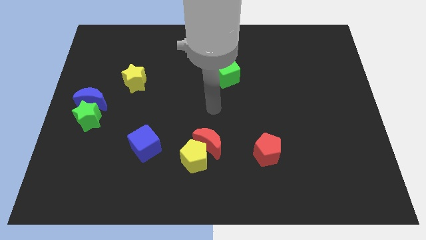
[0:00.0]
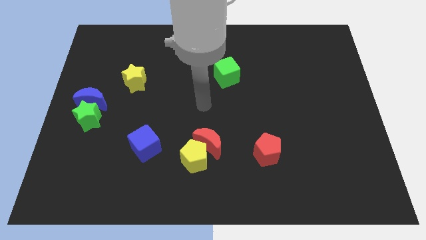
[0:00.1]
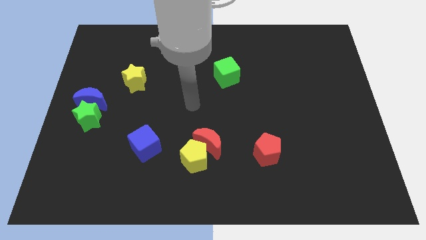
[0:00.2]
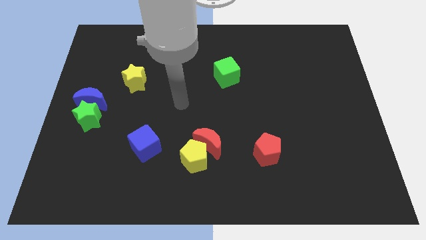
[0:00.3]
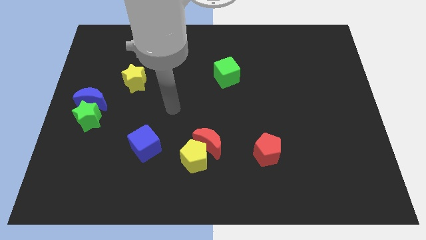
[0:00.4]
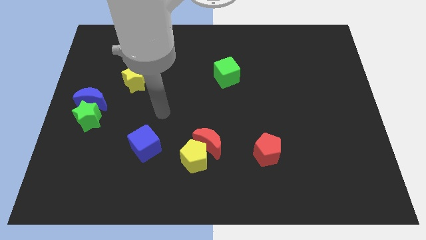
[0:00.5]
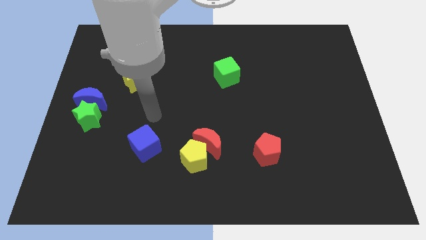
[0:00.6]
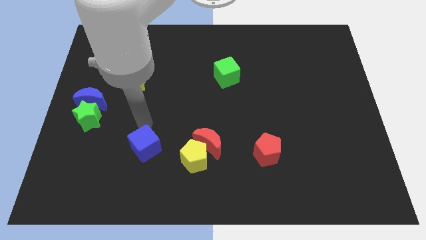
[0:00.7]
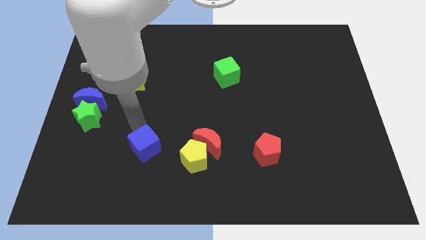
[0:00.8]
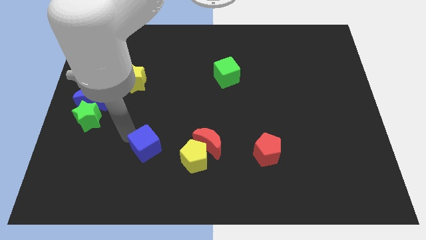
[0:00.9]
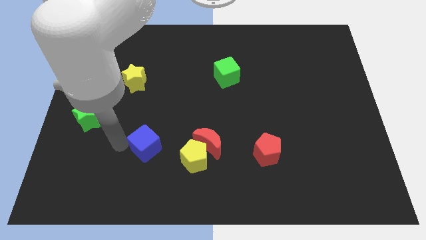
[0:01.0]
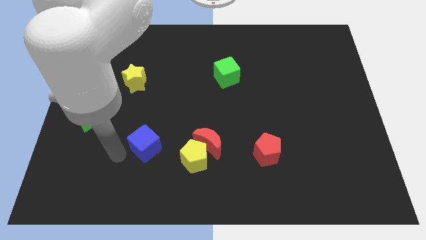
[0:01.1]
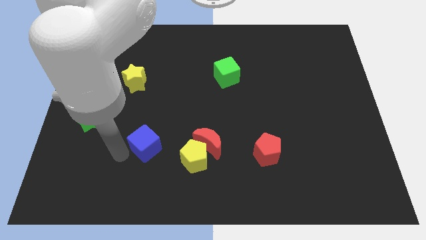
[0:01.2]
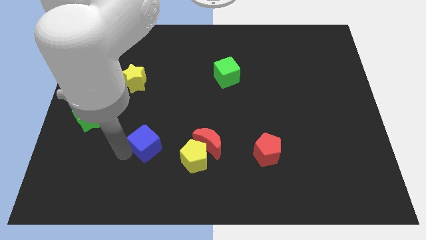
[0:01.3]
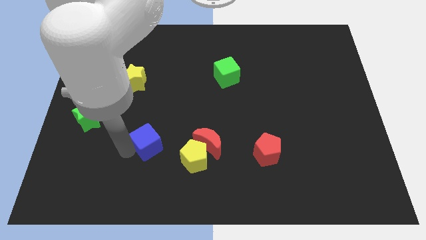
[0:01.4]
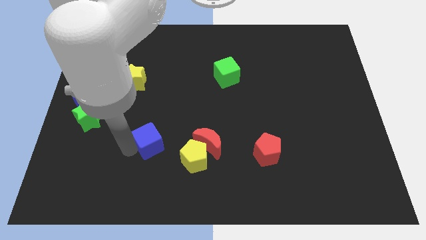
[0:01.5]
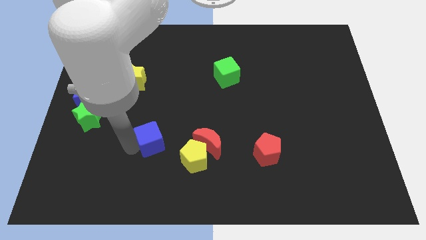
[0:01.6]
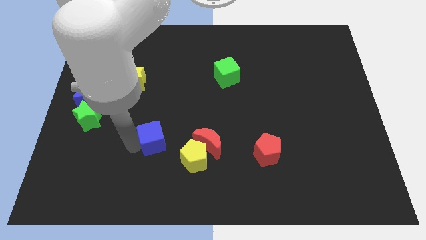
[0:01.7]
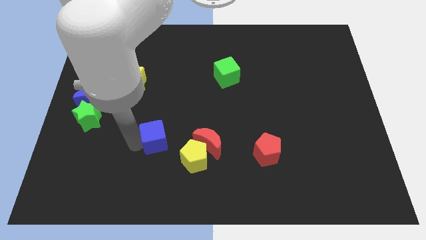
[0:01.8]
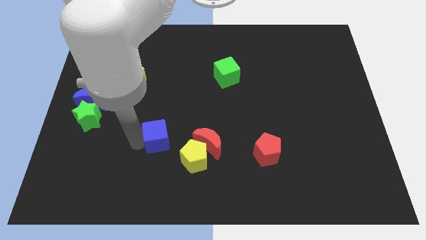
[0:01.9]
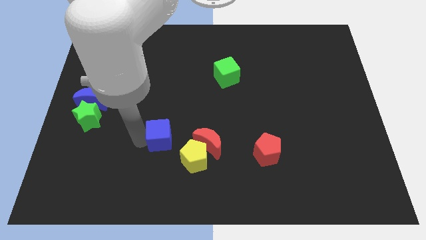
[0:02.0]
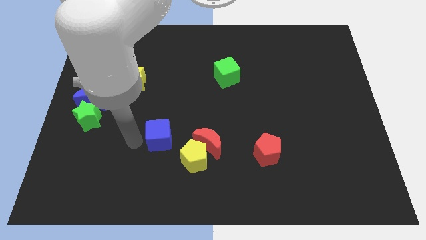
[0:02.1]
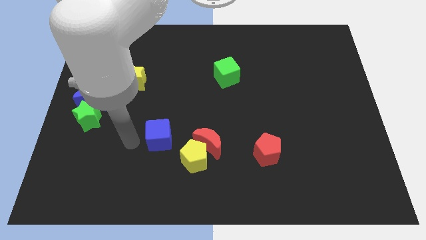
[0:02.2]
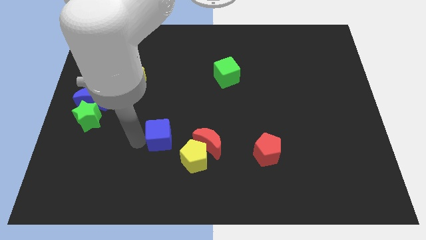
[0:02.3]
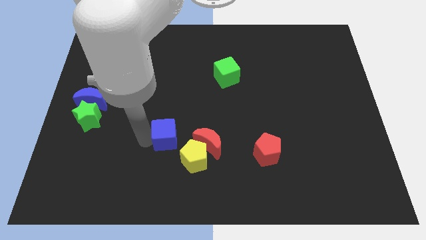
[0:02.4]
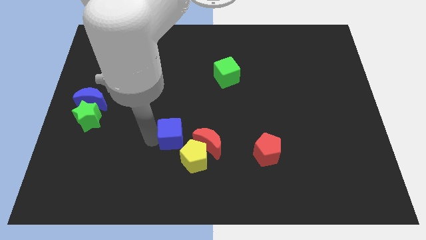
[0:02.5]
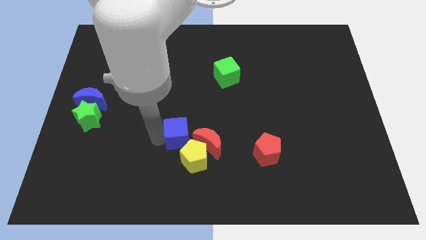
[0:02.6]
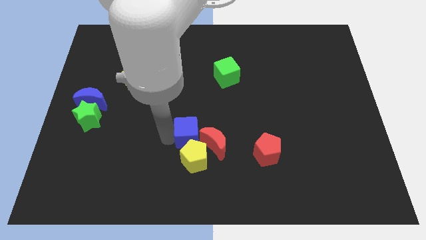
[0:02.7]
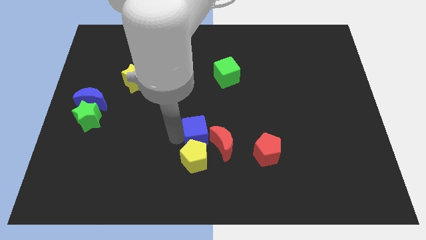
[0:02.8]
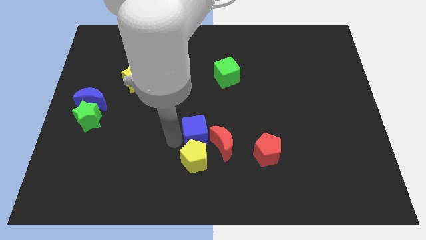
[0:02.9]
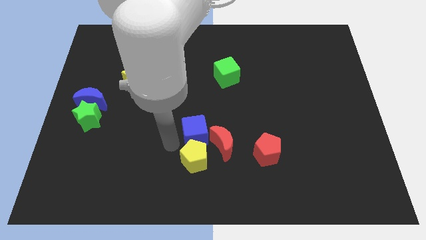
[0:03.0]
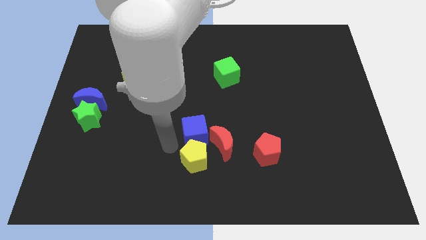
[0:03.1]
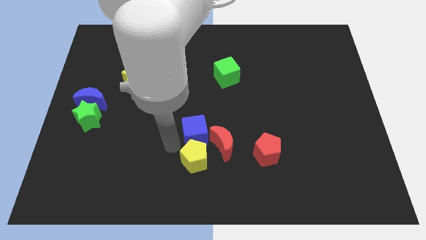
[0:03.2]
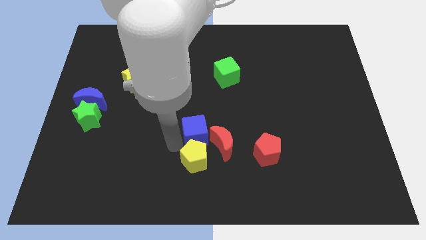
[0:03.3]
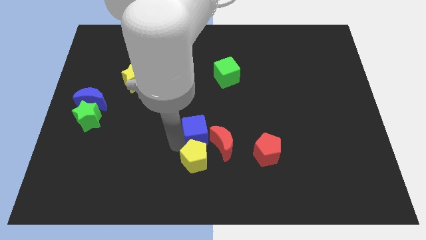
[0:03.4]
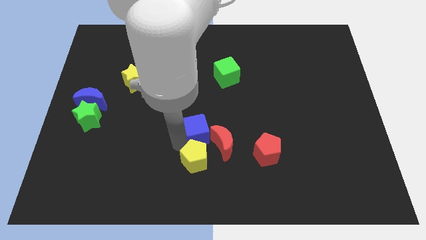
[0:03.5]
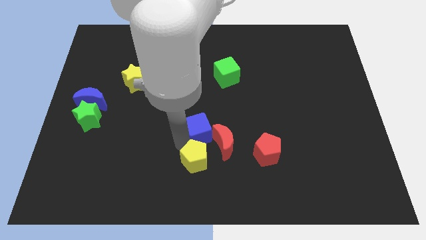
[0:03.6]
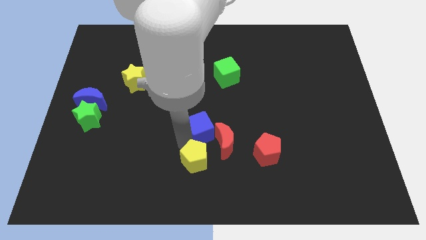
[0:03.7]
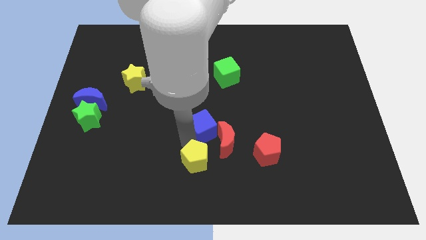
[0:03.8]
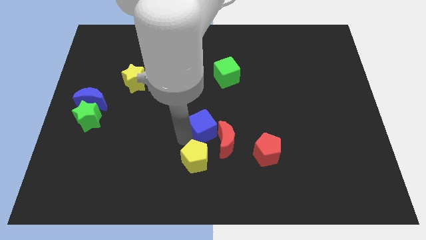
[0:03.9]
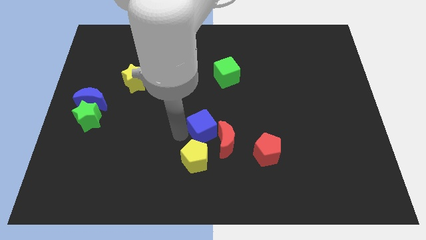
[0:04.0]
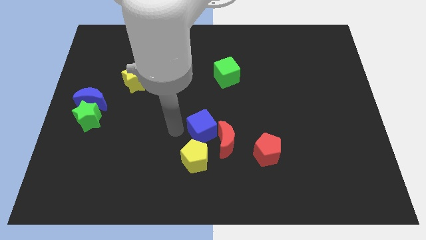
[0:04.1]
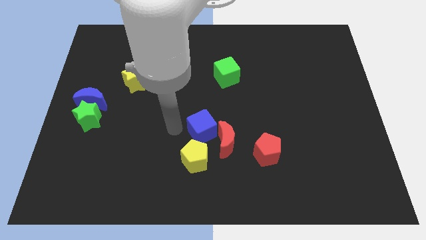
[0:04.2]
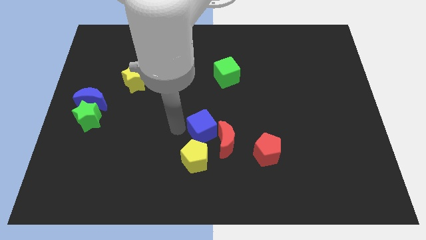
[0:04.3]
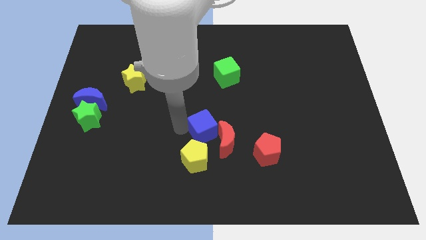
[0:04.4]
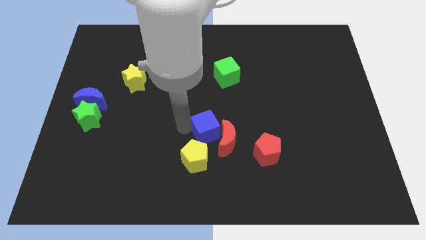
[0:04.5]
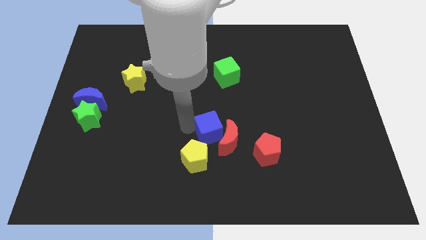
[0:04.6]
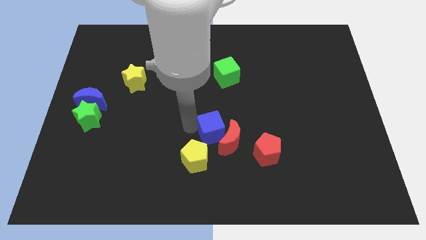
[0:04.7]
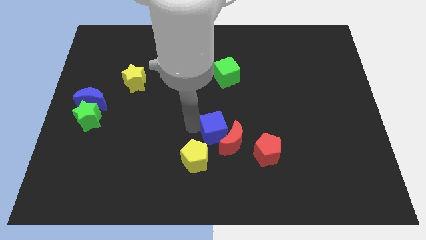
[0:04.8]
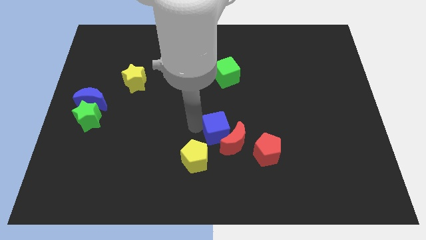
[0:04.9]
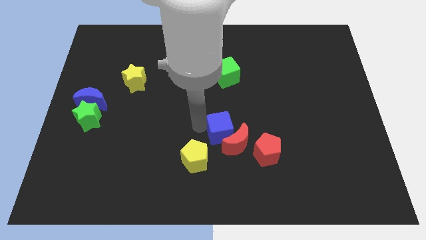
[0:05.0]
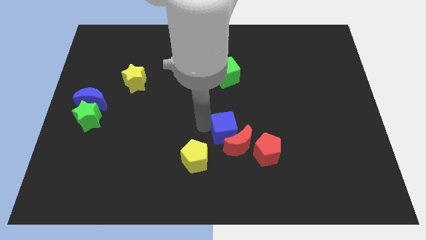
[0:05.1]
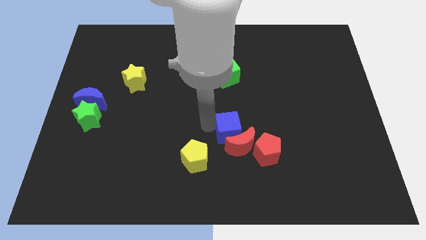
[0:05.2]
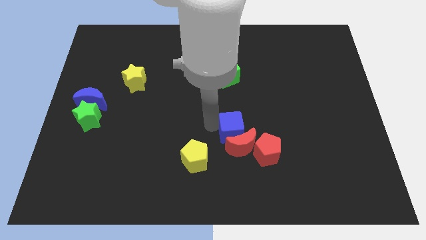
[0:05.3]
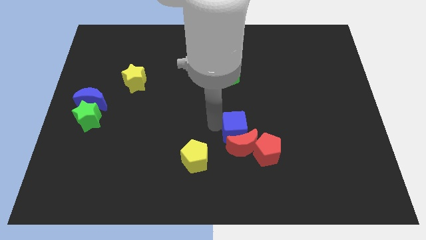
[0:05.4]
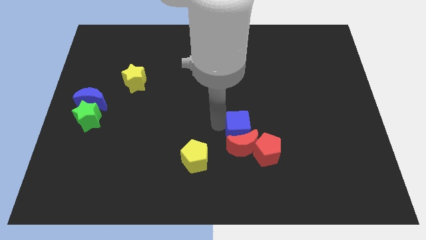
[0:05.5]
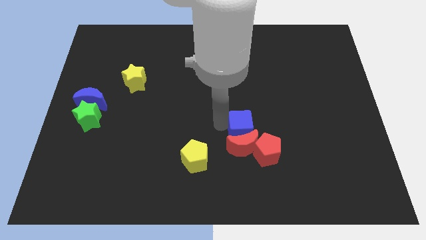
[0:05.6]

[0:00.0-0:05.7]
push the blue cube right

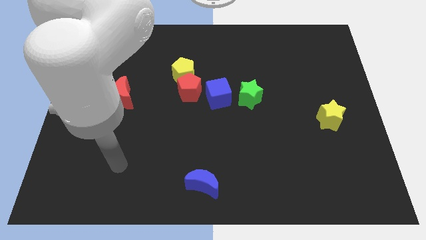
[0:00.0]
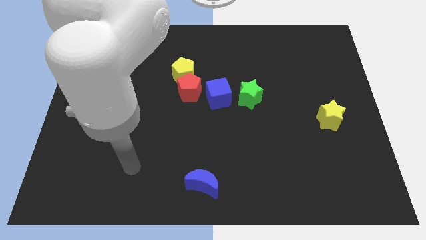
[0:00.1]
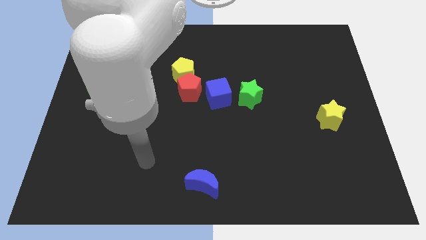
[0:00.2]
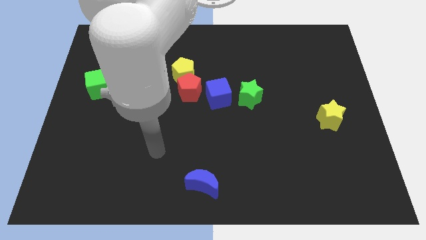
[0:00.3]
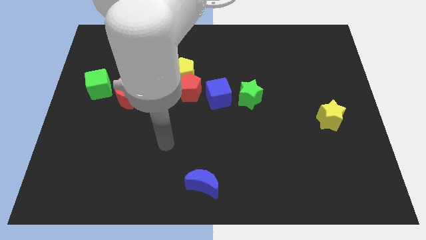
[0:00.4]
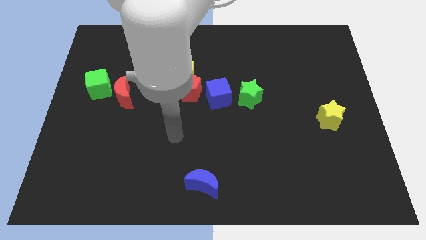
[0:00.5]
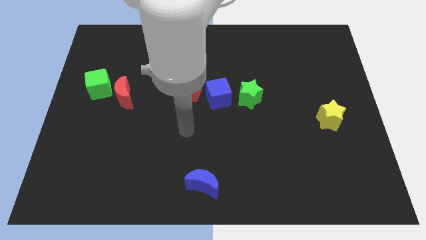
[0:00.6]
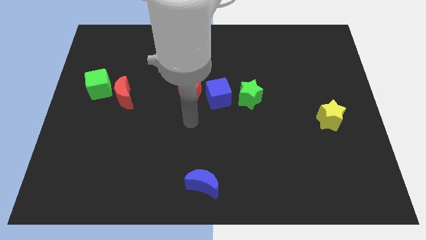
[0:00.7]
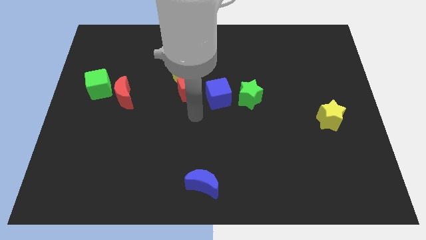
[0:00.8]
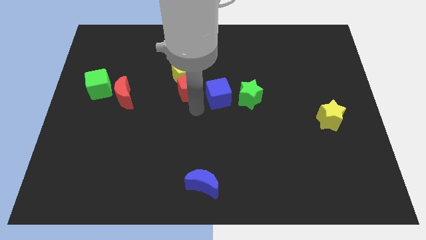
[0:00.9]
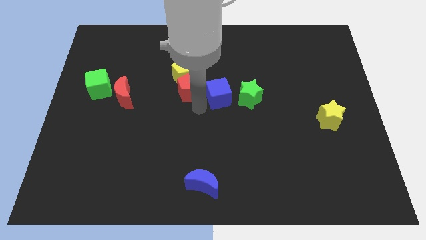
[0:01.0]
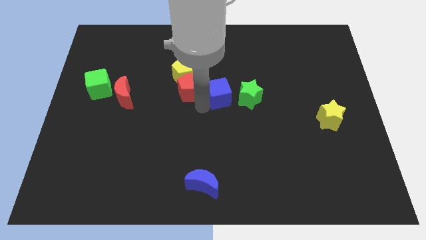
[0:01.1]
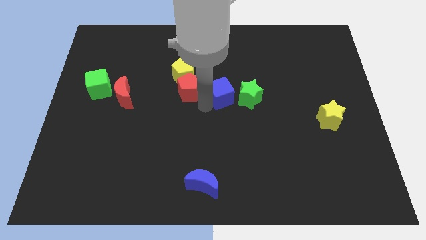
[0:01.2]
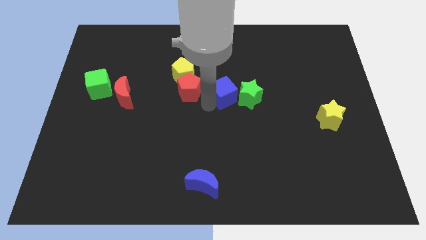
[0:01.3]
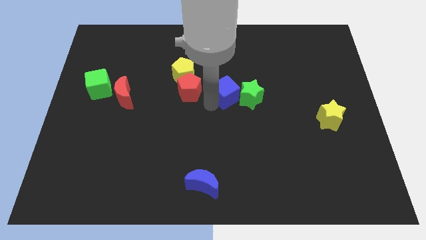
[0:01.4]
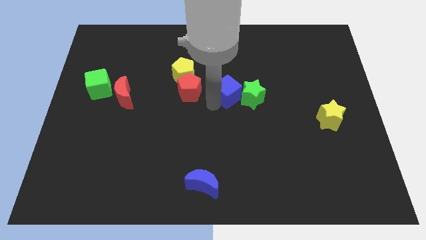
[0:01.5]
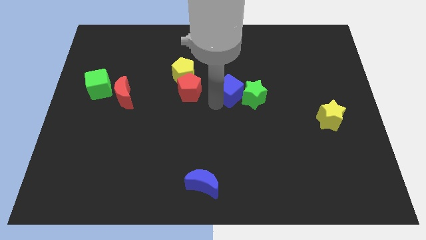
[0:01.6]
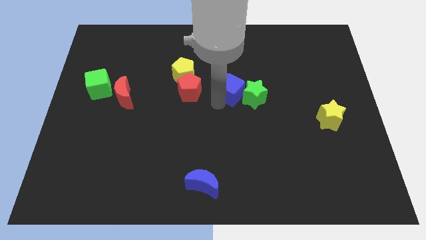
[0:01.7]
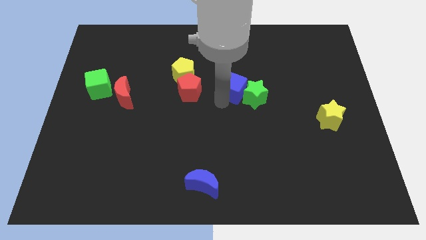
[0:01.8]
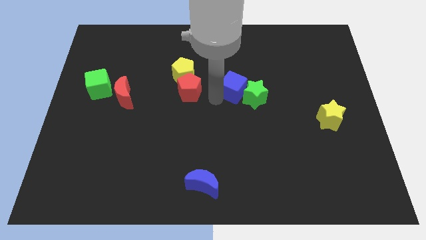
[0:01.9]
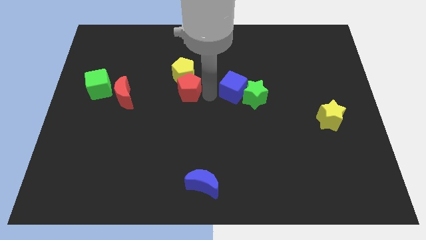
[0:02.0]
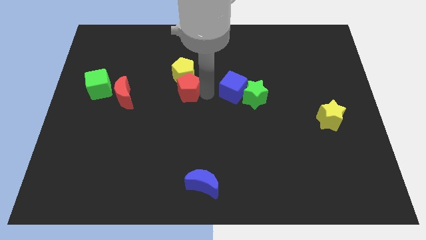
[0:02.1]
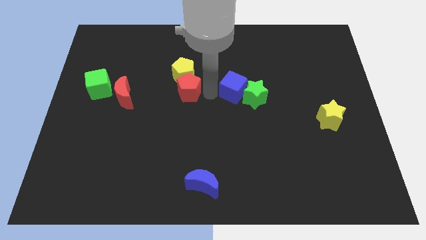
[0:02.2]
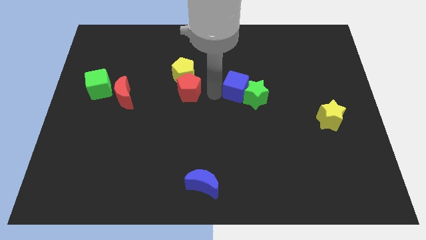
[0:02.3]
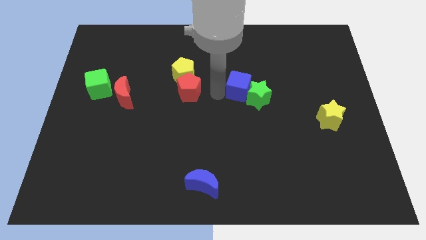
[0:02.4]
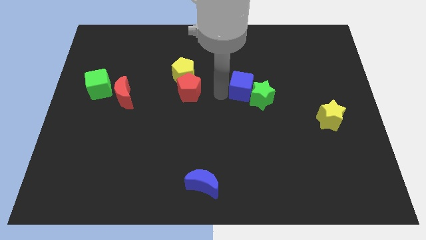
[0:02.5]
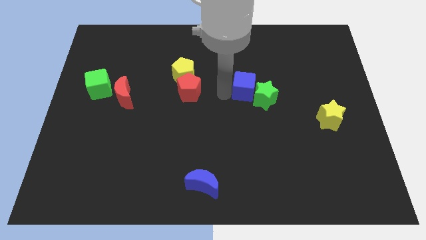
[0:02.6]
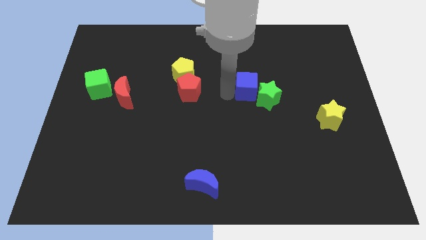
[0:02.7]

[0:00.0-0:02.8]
slide the blue cube slightly to the right
